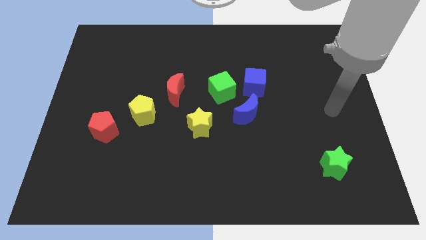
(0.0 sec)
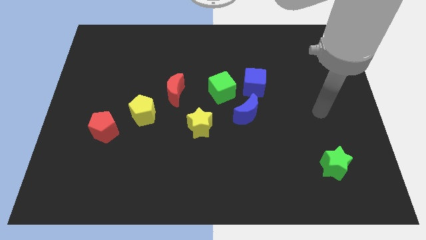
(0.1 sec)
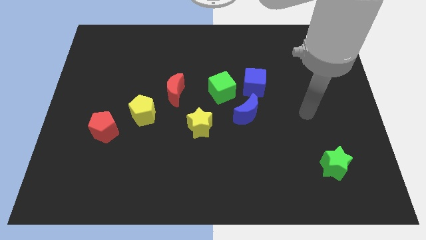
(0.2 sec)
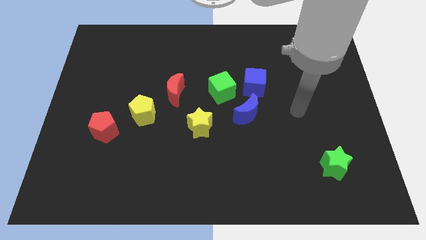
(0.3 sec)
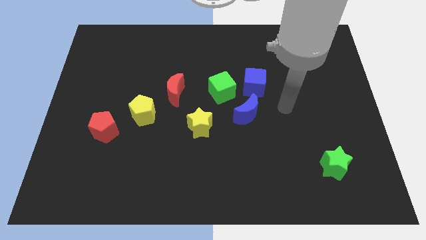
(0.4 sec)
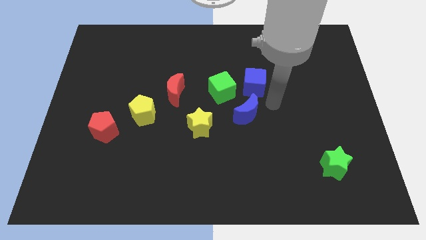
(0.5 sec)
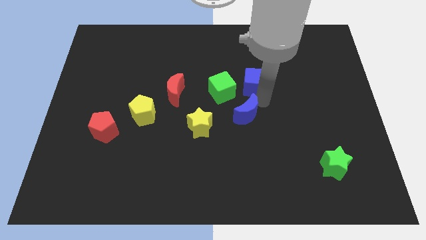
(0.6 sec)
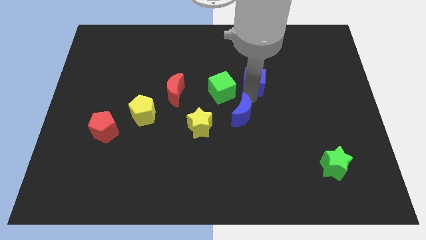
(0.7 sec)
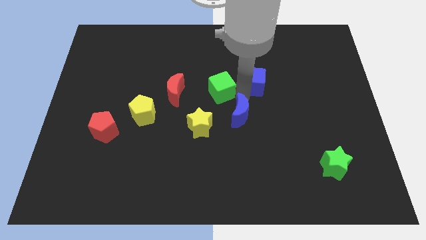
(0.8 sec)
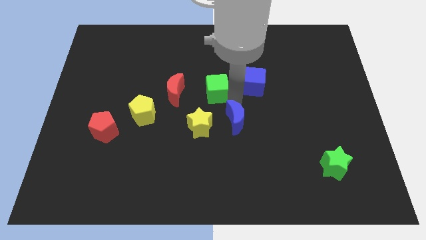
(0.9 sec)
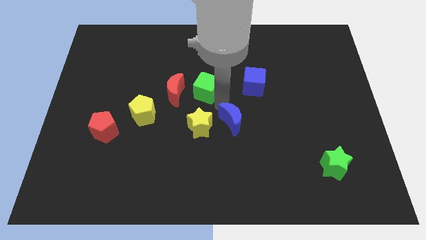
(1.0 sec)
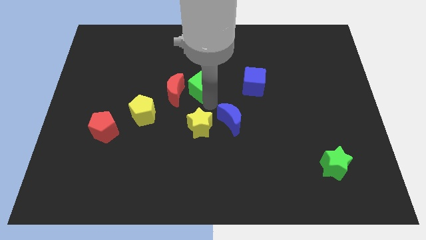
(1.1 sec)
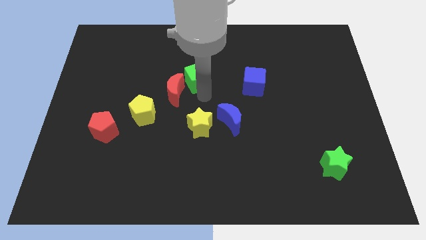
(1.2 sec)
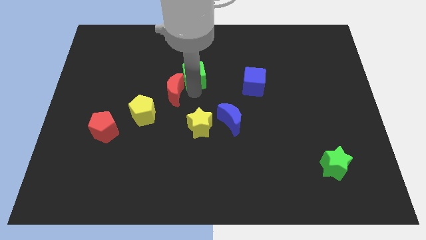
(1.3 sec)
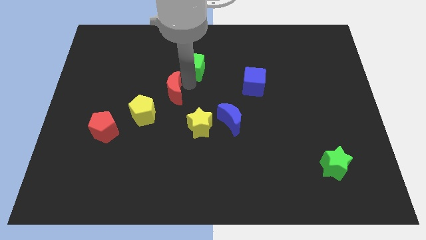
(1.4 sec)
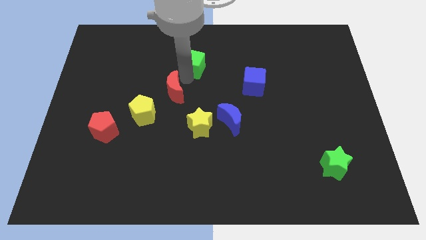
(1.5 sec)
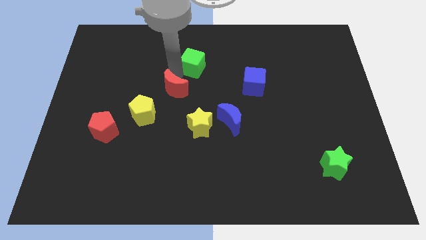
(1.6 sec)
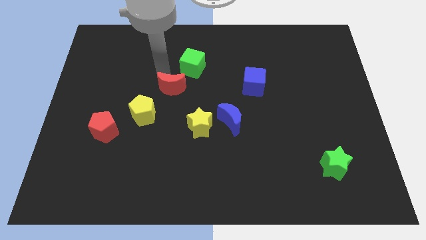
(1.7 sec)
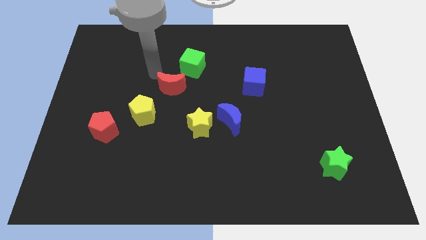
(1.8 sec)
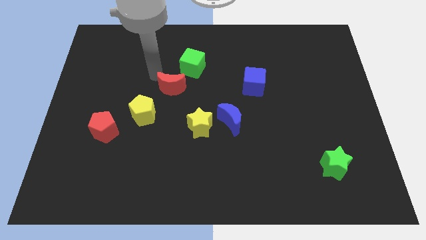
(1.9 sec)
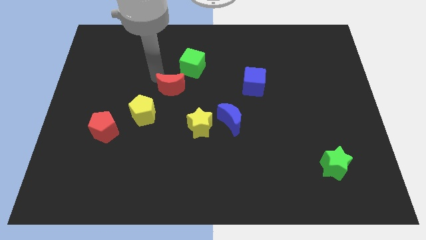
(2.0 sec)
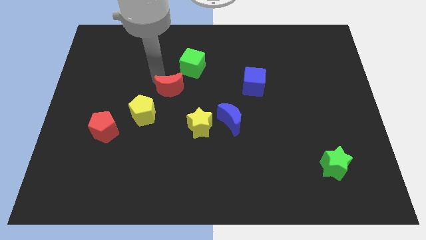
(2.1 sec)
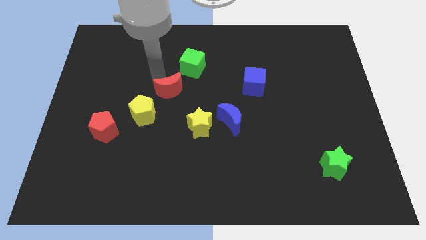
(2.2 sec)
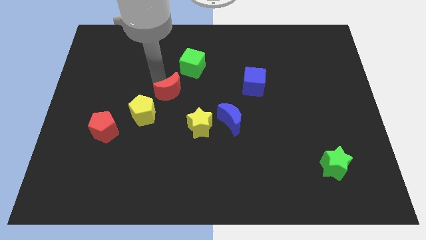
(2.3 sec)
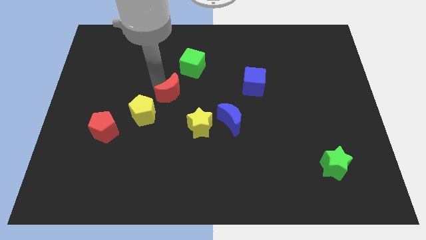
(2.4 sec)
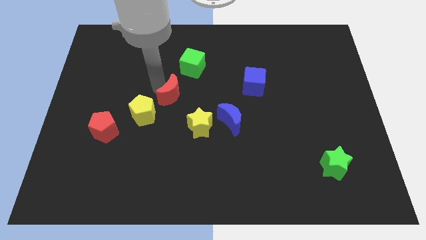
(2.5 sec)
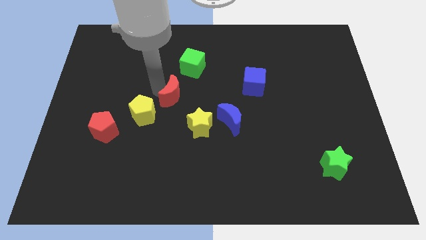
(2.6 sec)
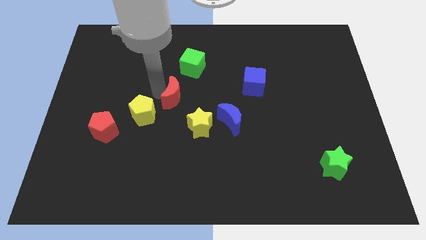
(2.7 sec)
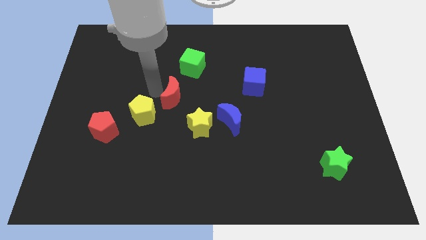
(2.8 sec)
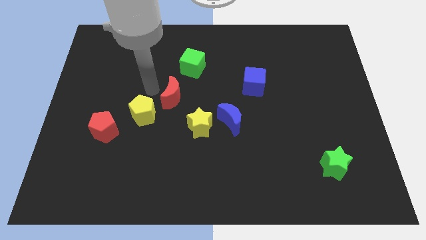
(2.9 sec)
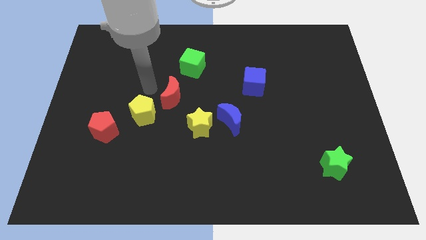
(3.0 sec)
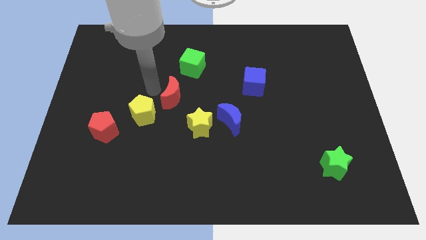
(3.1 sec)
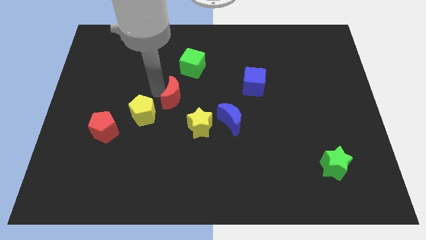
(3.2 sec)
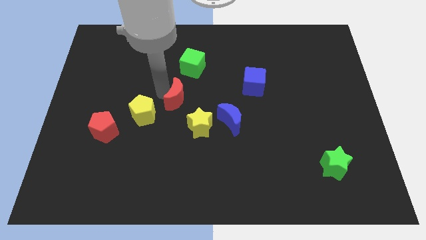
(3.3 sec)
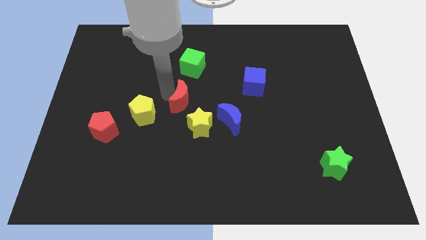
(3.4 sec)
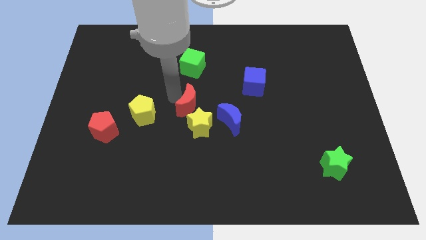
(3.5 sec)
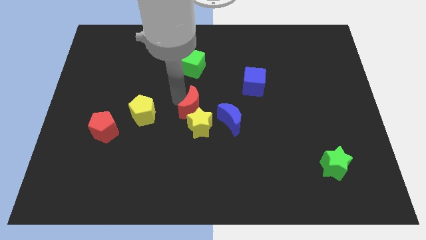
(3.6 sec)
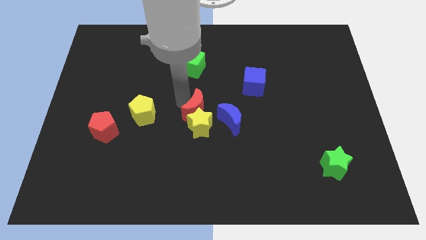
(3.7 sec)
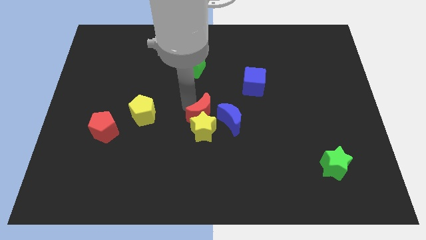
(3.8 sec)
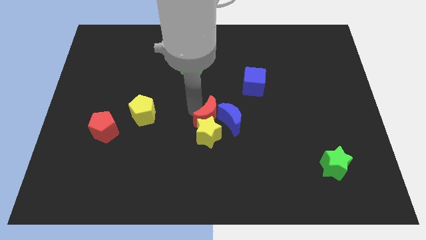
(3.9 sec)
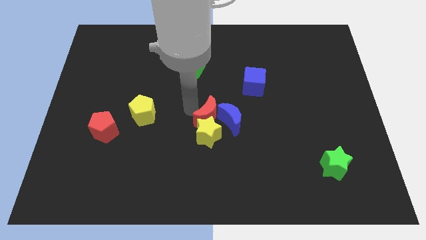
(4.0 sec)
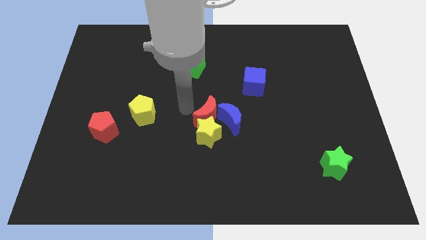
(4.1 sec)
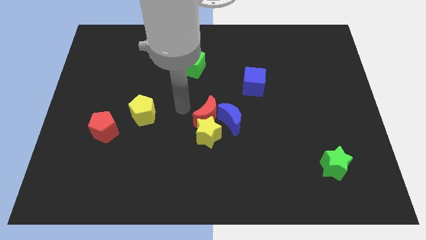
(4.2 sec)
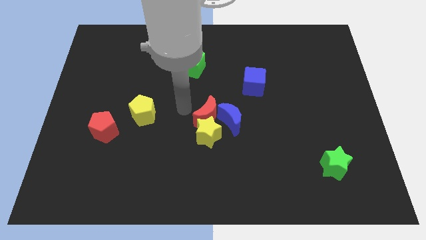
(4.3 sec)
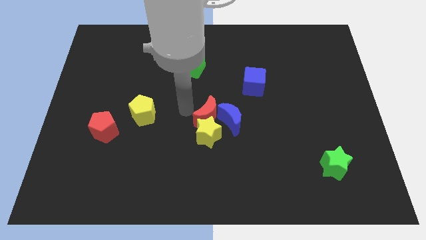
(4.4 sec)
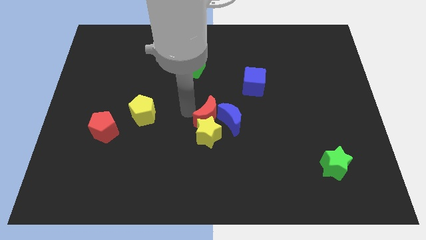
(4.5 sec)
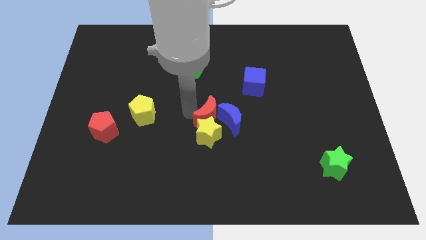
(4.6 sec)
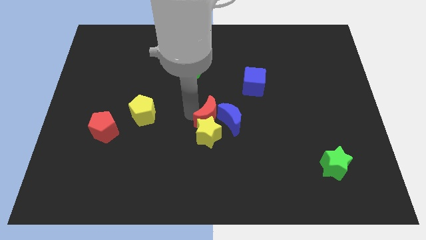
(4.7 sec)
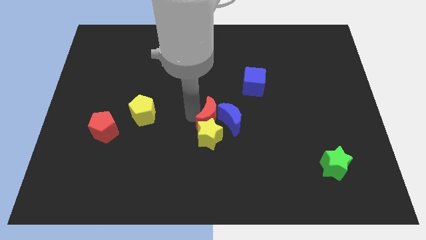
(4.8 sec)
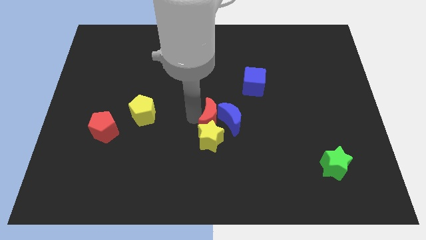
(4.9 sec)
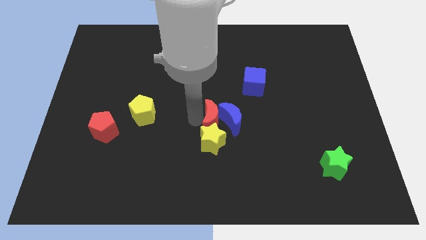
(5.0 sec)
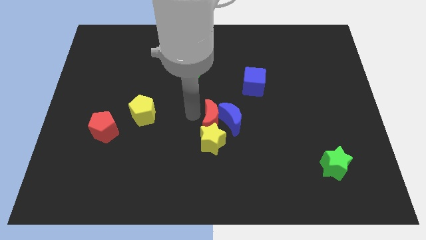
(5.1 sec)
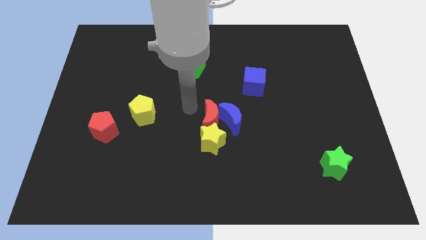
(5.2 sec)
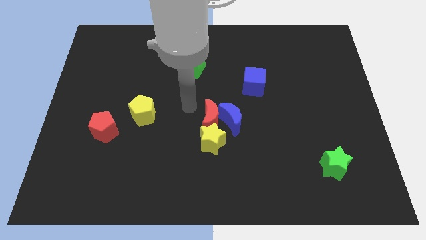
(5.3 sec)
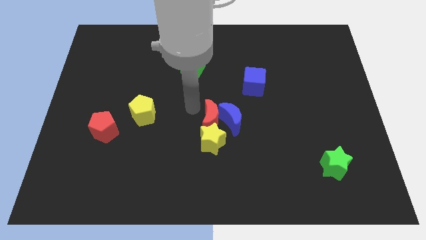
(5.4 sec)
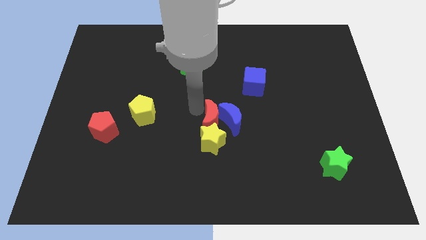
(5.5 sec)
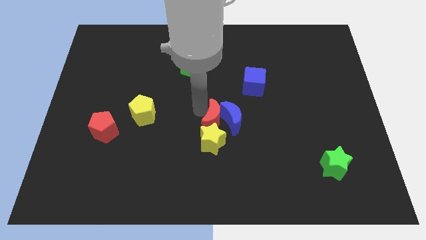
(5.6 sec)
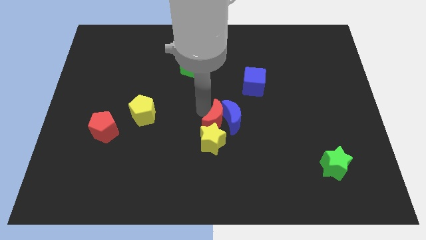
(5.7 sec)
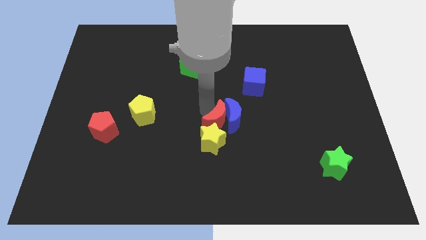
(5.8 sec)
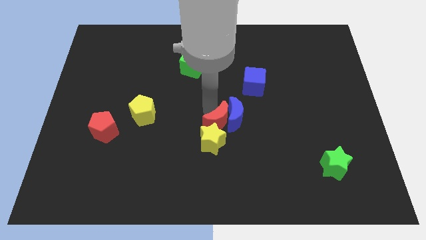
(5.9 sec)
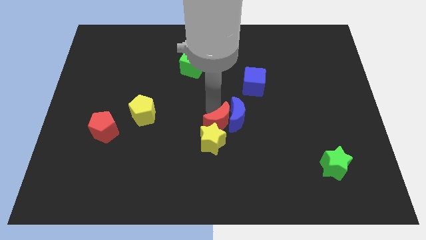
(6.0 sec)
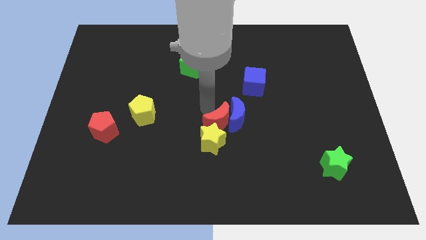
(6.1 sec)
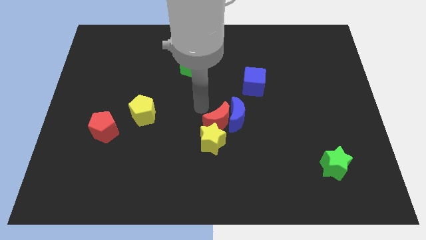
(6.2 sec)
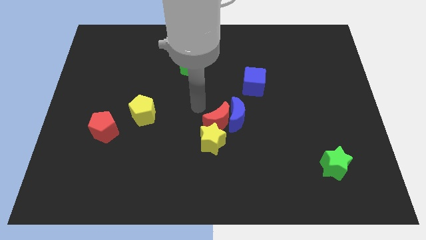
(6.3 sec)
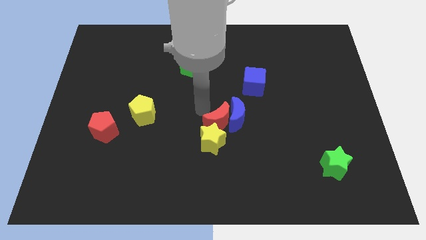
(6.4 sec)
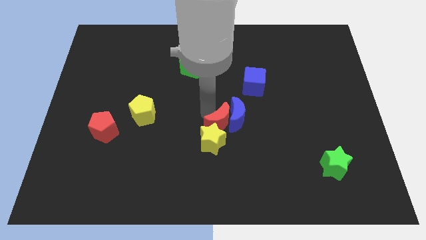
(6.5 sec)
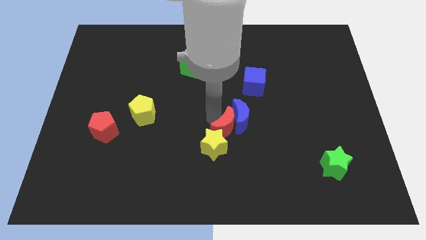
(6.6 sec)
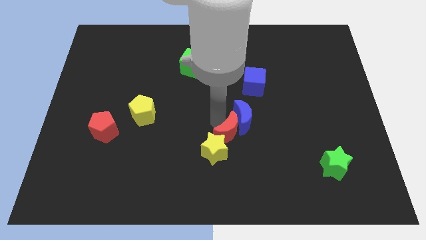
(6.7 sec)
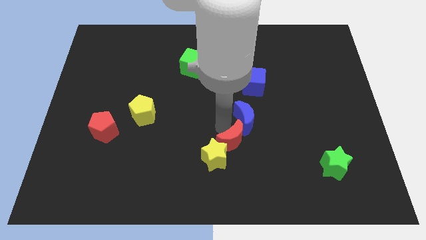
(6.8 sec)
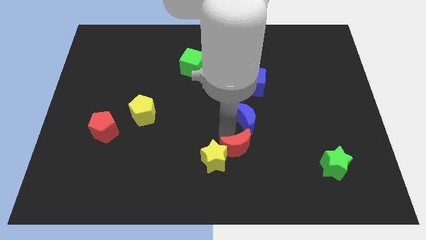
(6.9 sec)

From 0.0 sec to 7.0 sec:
push the red moon down and then to the right

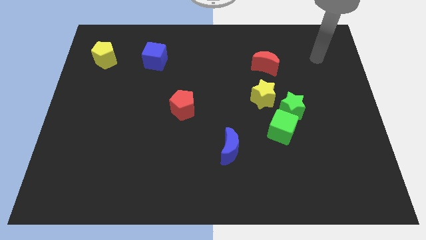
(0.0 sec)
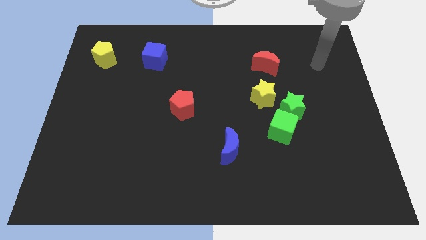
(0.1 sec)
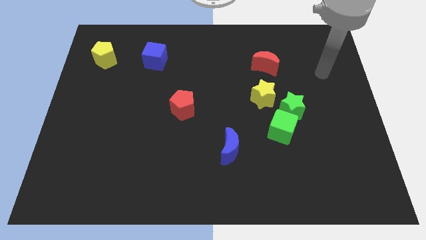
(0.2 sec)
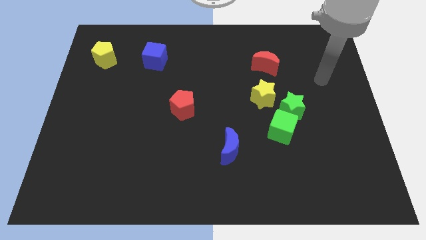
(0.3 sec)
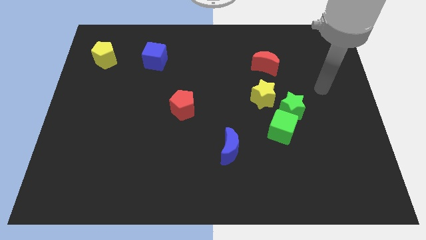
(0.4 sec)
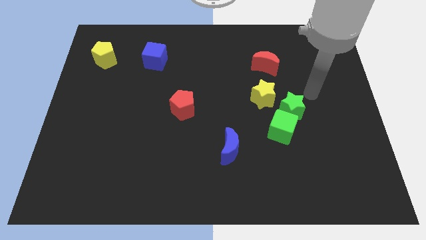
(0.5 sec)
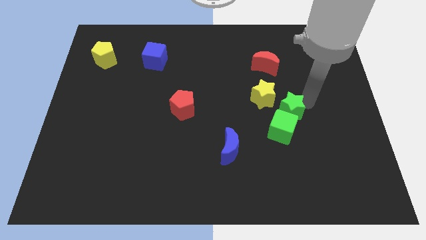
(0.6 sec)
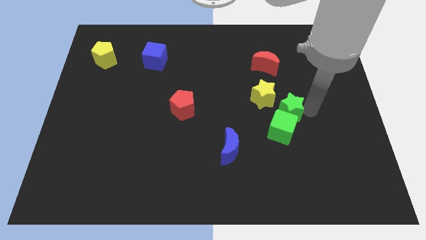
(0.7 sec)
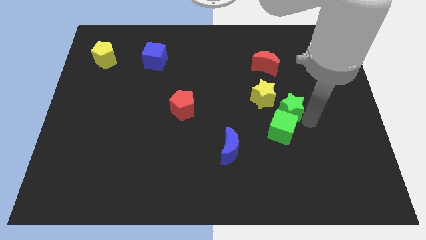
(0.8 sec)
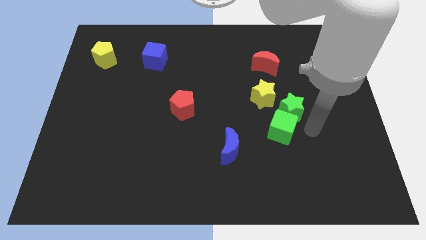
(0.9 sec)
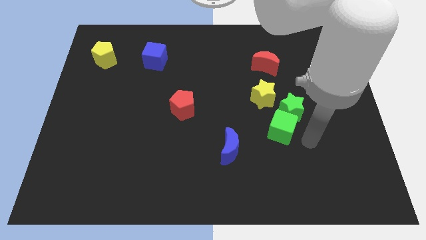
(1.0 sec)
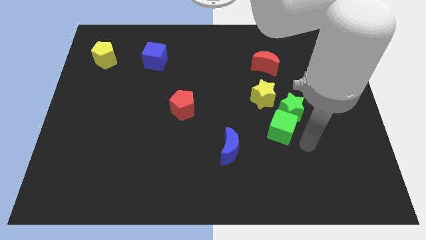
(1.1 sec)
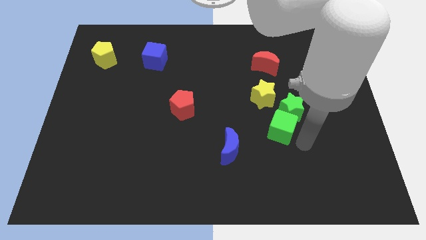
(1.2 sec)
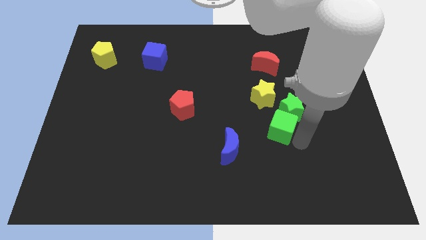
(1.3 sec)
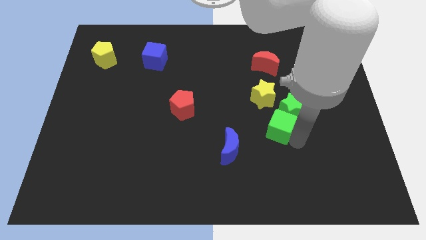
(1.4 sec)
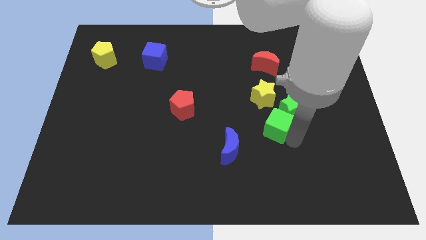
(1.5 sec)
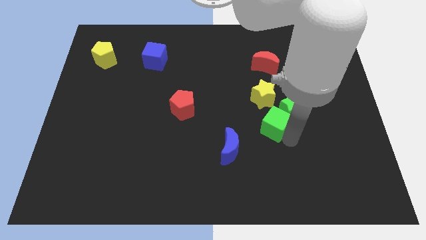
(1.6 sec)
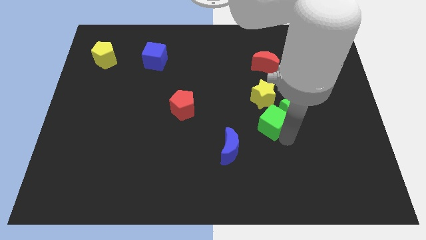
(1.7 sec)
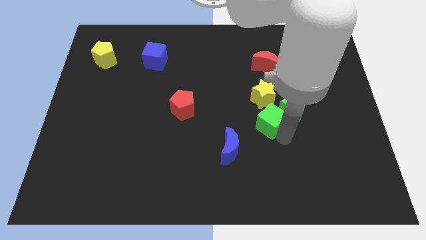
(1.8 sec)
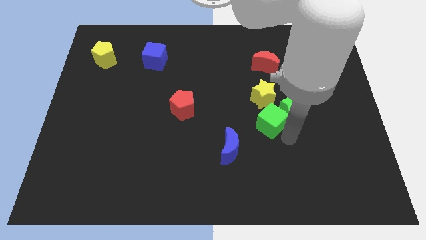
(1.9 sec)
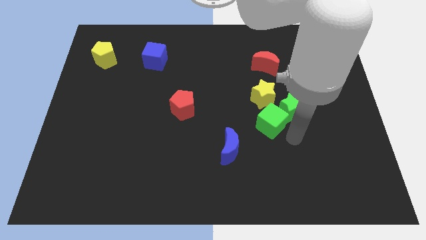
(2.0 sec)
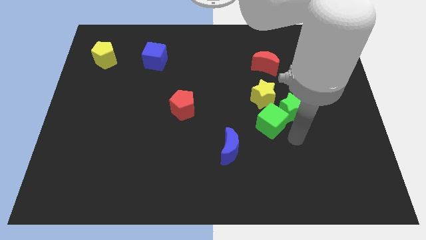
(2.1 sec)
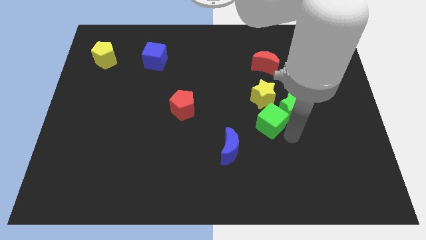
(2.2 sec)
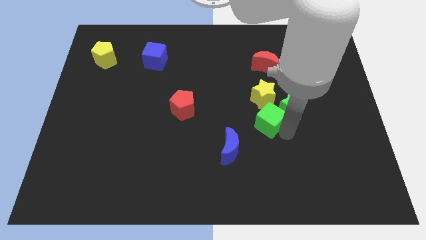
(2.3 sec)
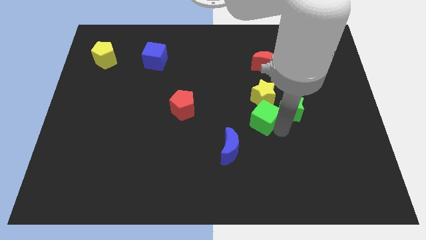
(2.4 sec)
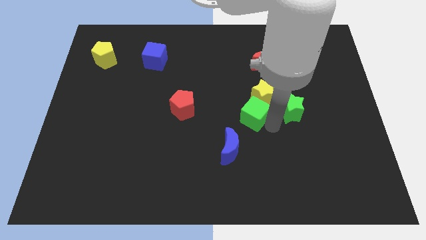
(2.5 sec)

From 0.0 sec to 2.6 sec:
slightly push the green cube upwards and left diagonally
